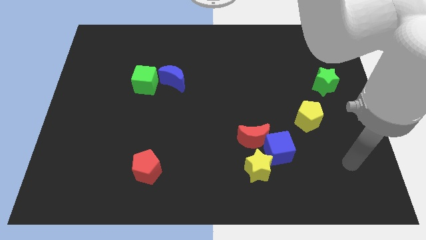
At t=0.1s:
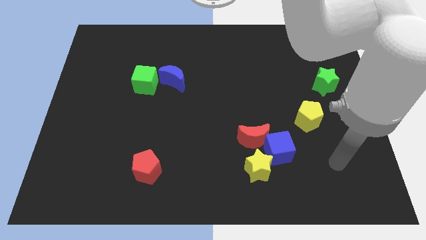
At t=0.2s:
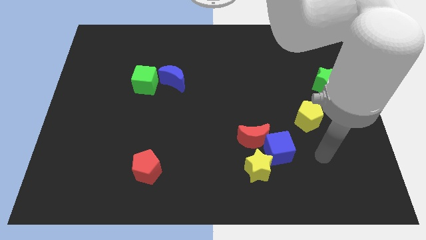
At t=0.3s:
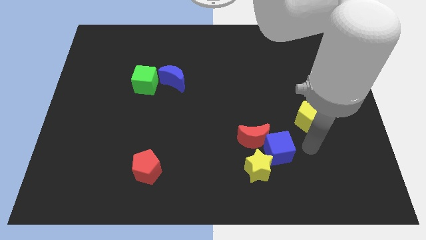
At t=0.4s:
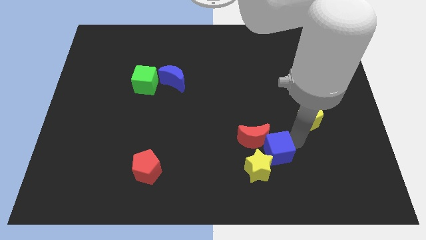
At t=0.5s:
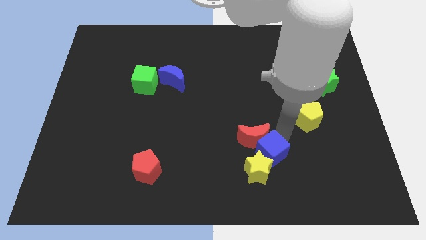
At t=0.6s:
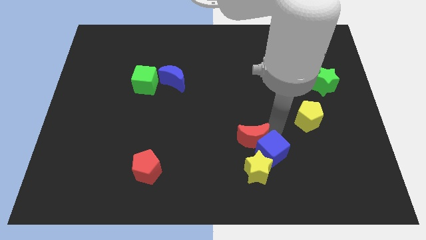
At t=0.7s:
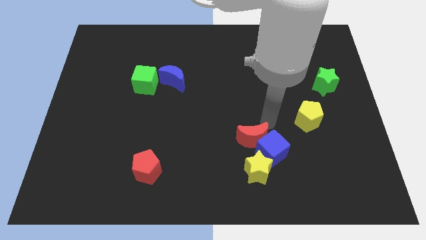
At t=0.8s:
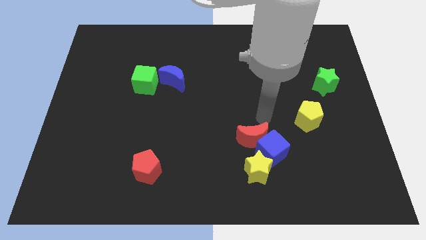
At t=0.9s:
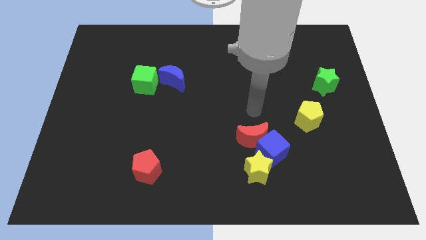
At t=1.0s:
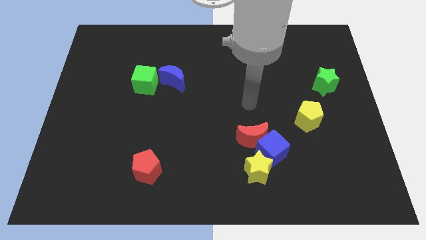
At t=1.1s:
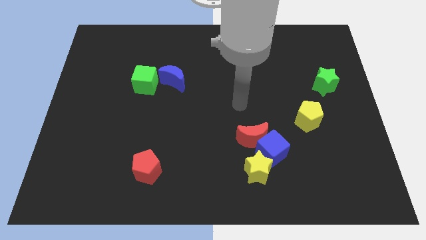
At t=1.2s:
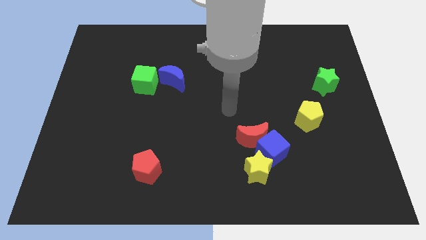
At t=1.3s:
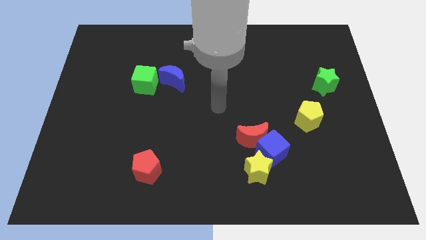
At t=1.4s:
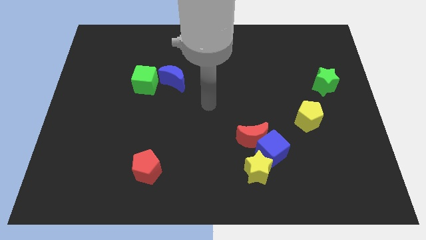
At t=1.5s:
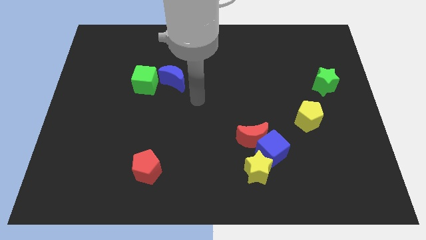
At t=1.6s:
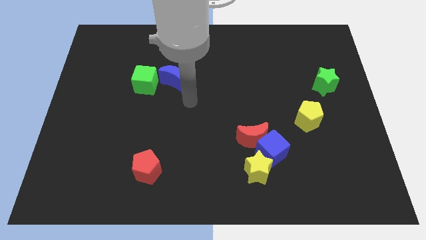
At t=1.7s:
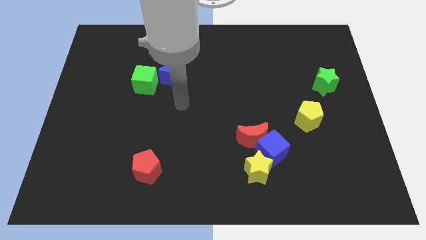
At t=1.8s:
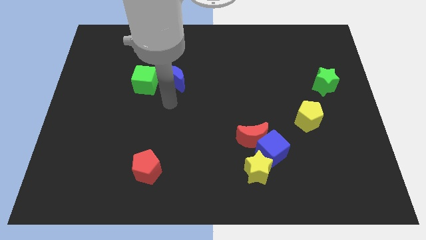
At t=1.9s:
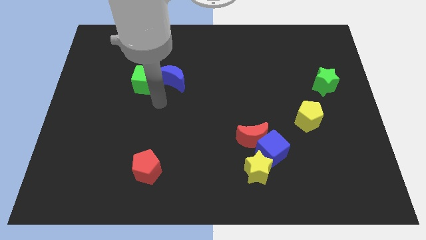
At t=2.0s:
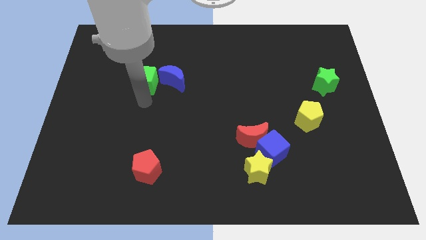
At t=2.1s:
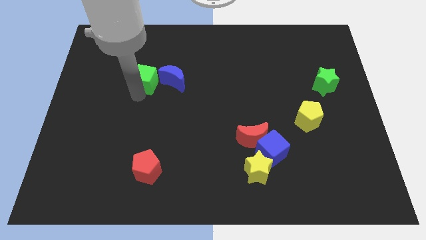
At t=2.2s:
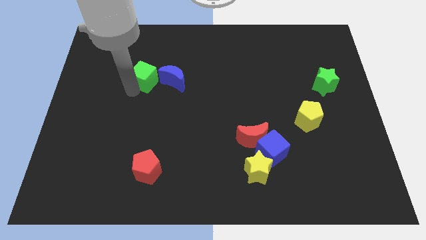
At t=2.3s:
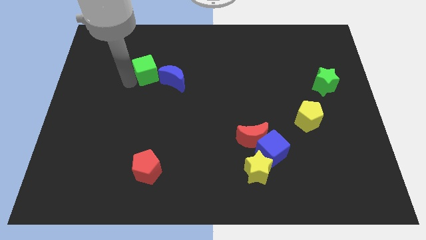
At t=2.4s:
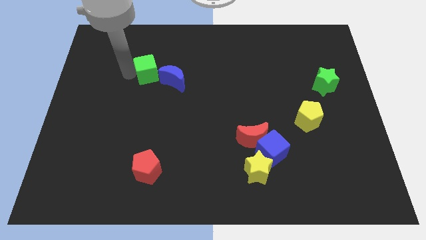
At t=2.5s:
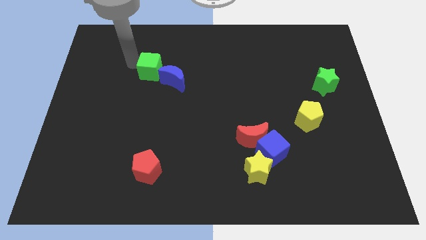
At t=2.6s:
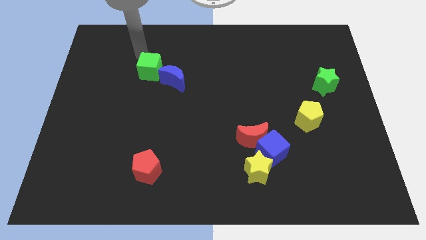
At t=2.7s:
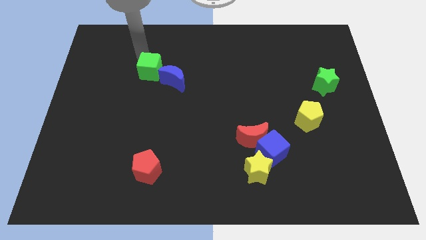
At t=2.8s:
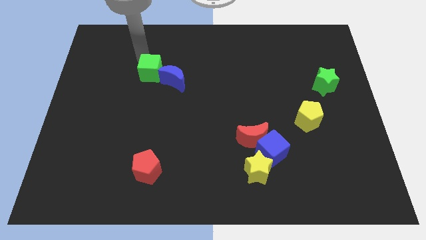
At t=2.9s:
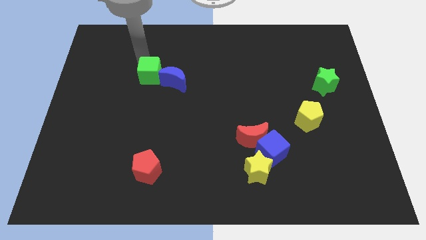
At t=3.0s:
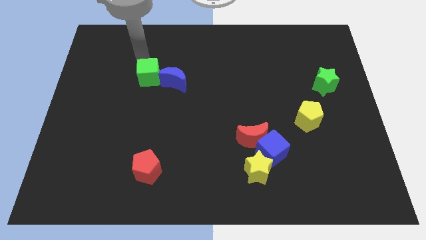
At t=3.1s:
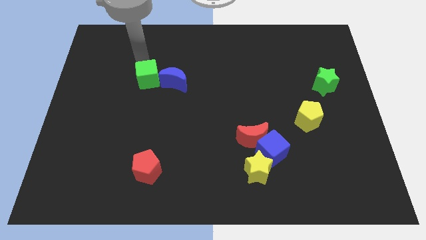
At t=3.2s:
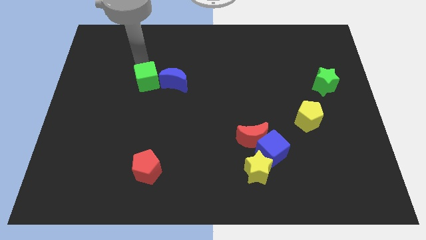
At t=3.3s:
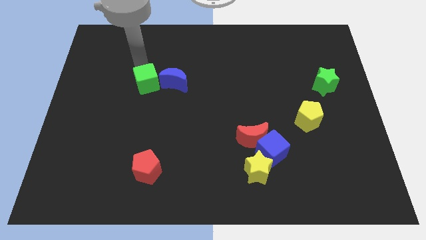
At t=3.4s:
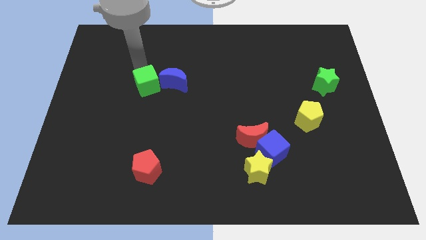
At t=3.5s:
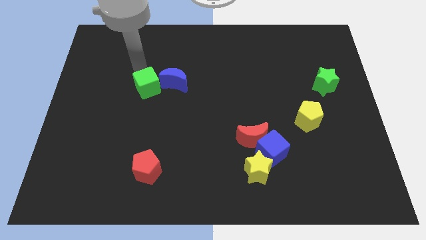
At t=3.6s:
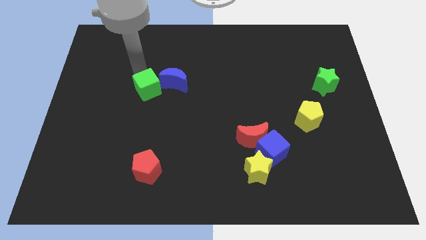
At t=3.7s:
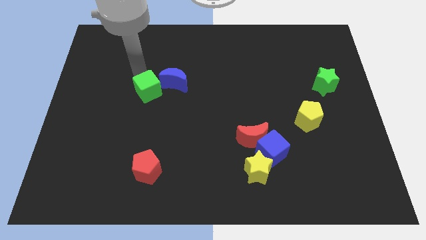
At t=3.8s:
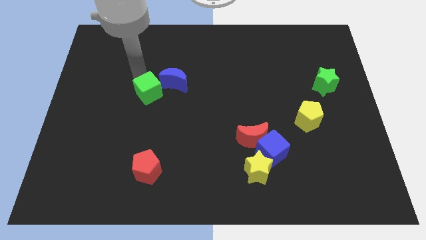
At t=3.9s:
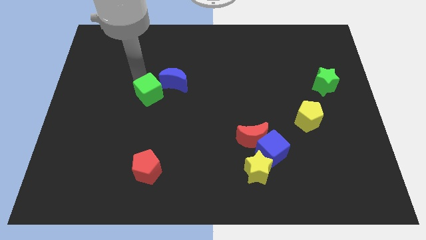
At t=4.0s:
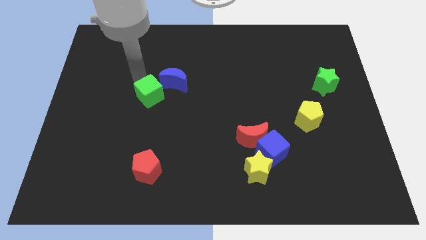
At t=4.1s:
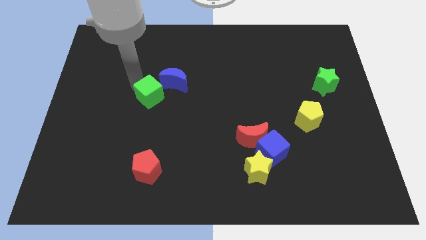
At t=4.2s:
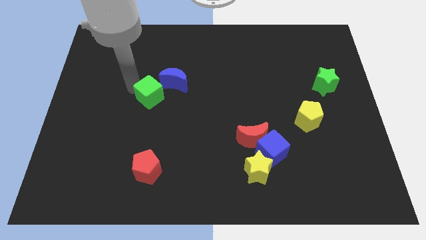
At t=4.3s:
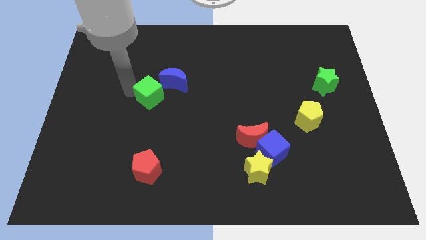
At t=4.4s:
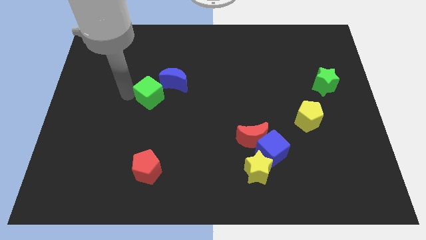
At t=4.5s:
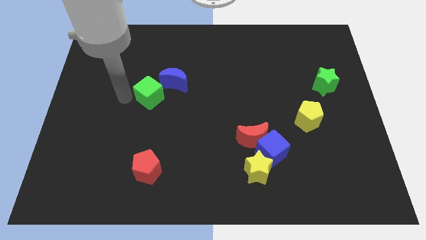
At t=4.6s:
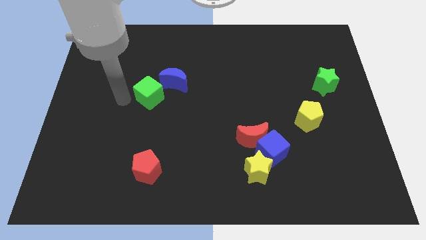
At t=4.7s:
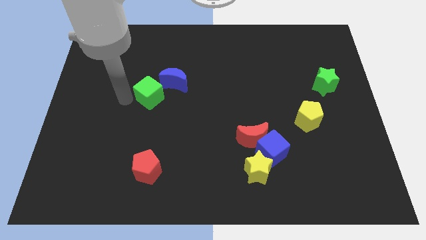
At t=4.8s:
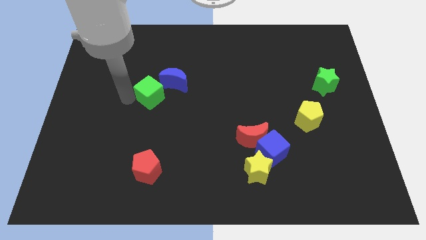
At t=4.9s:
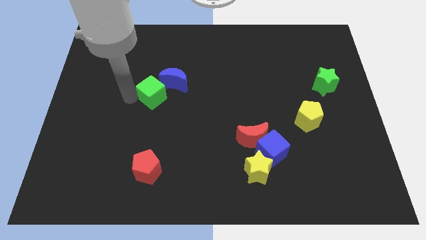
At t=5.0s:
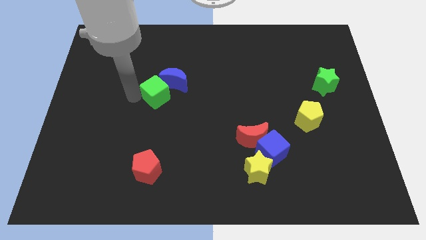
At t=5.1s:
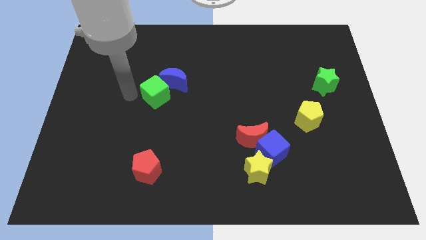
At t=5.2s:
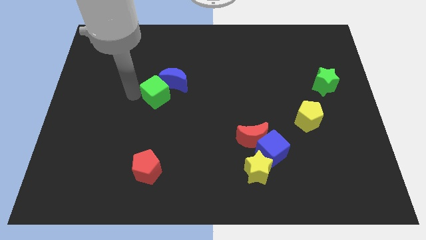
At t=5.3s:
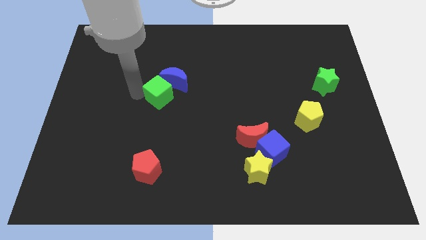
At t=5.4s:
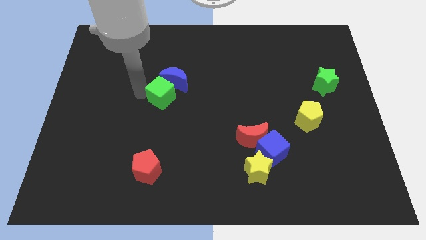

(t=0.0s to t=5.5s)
slide the green cube to the middle of the board

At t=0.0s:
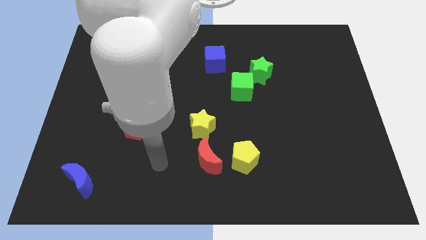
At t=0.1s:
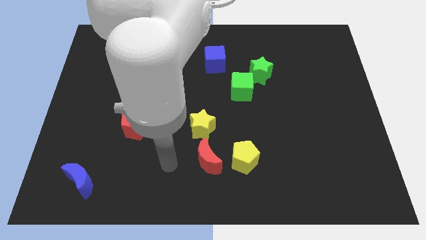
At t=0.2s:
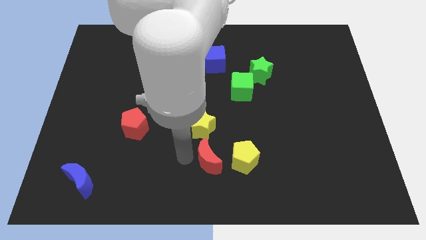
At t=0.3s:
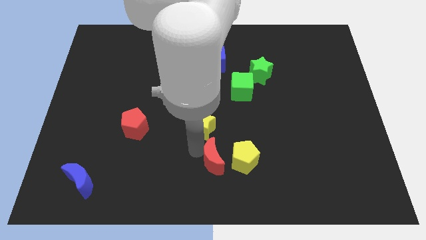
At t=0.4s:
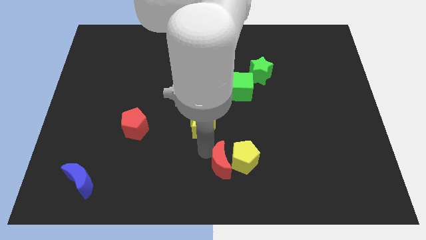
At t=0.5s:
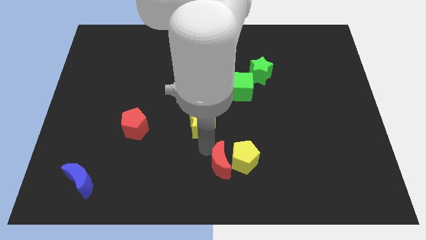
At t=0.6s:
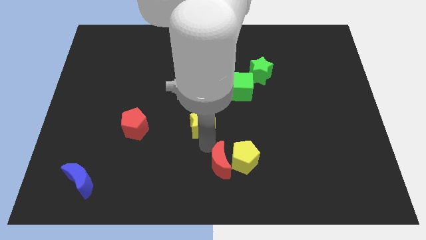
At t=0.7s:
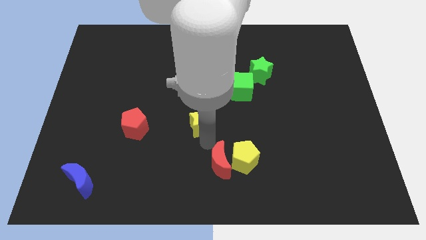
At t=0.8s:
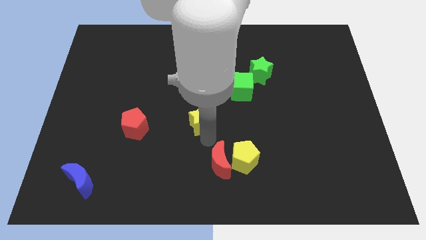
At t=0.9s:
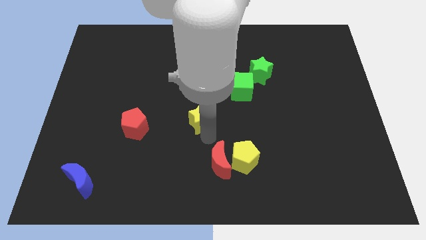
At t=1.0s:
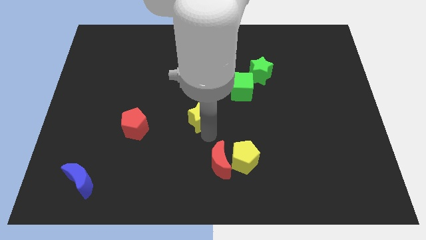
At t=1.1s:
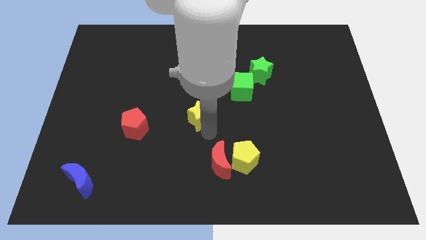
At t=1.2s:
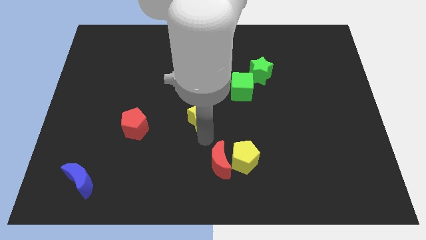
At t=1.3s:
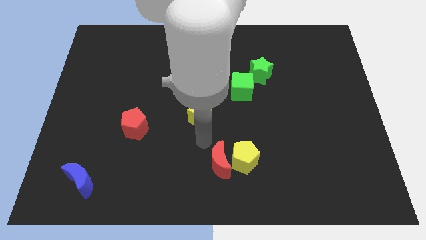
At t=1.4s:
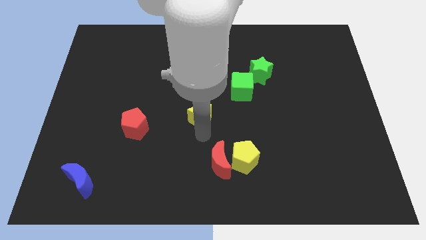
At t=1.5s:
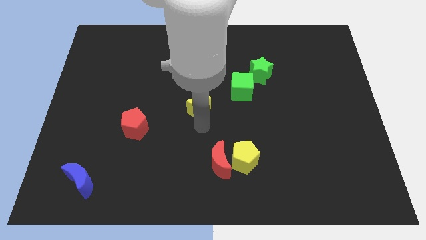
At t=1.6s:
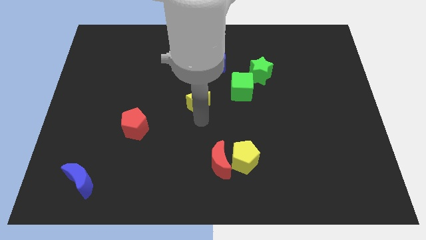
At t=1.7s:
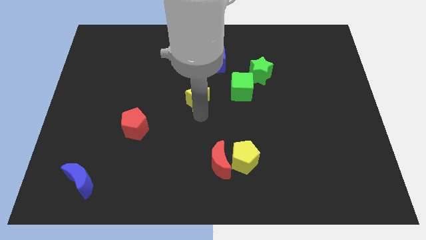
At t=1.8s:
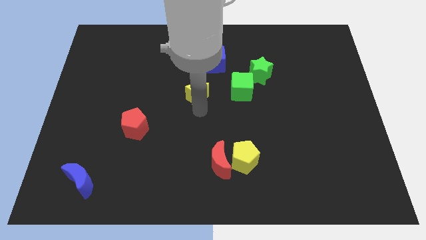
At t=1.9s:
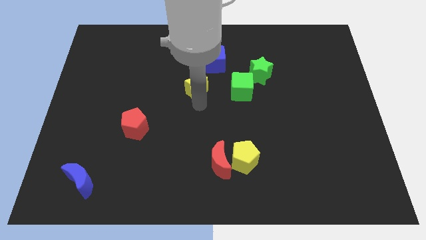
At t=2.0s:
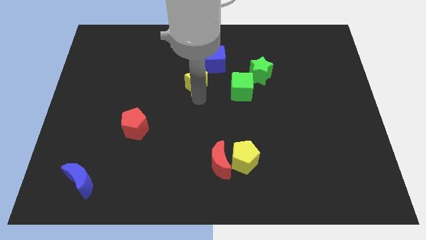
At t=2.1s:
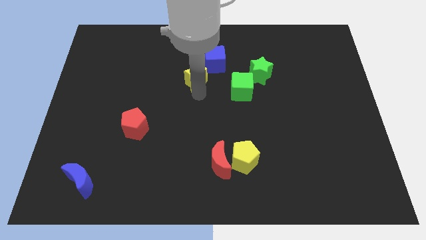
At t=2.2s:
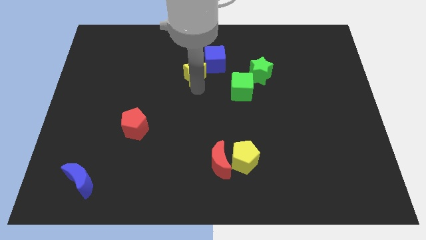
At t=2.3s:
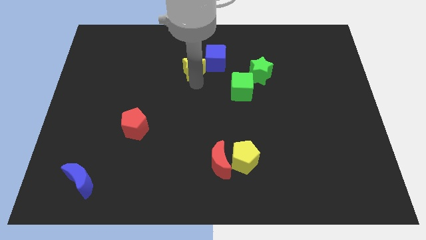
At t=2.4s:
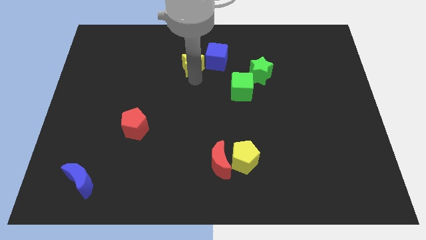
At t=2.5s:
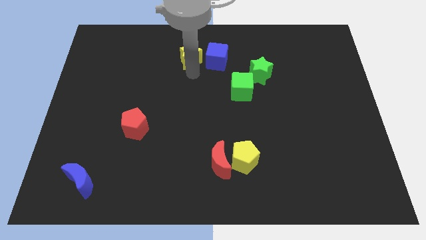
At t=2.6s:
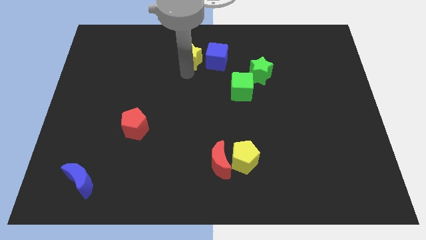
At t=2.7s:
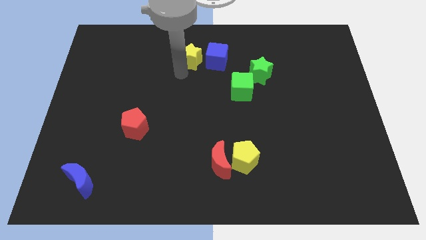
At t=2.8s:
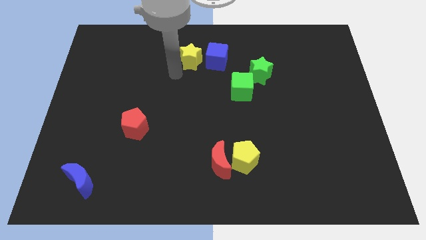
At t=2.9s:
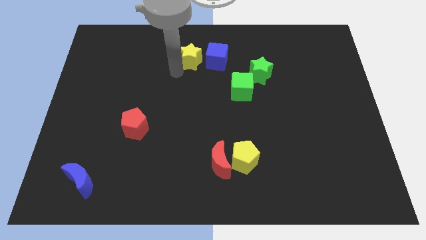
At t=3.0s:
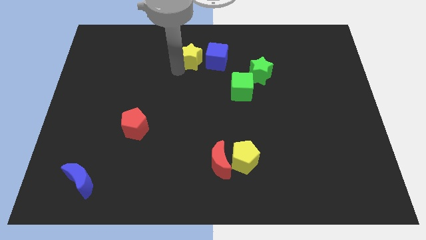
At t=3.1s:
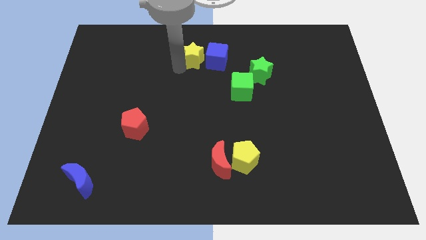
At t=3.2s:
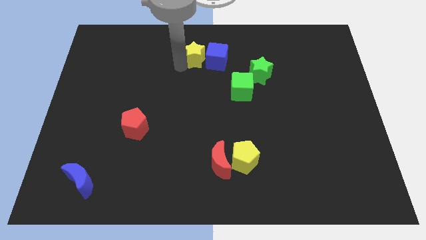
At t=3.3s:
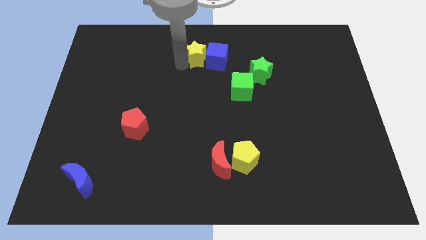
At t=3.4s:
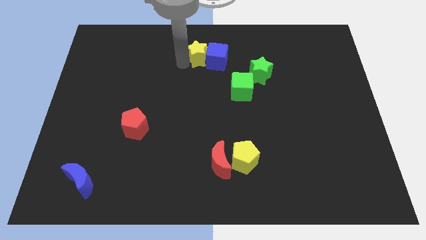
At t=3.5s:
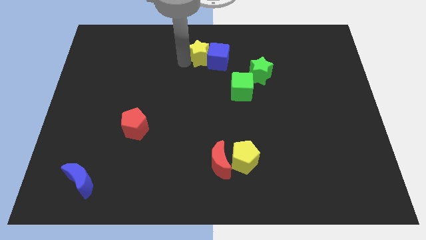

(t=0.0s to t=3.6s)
push the yellow star to the towards your base
